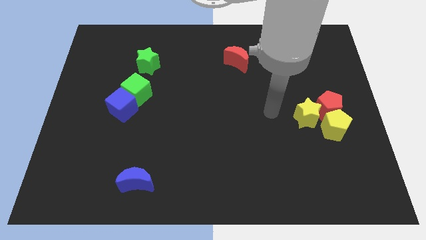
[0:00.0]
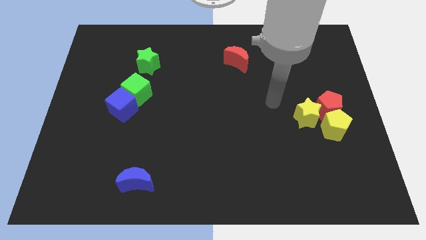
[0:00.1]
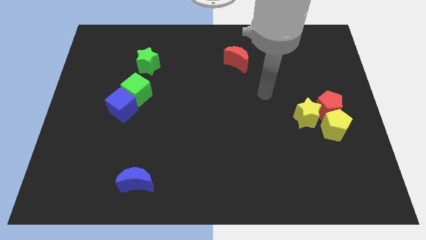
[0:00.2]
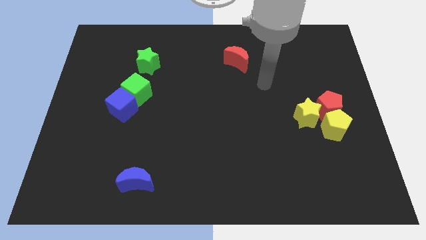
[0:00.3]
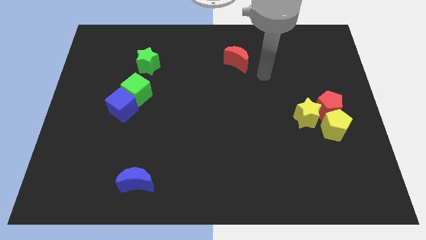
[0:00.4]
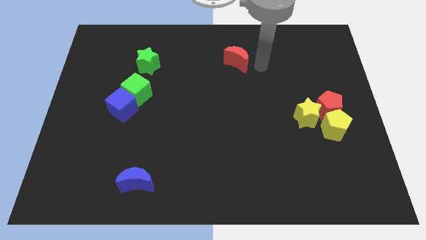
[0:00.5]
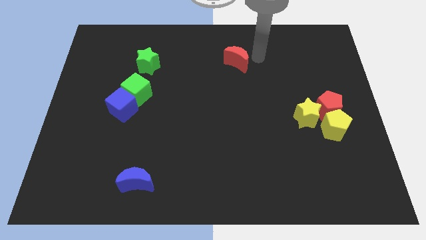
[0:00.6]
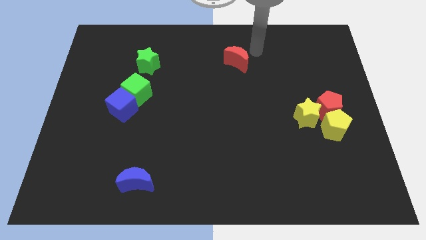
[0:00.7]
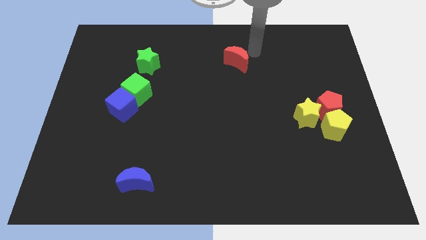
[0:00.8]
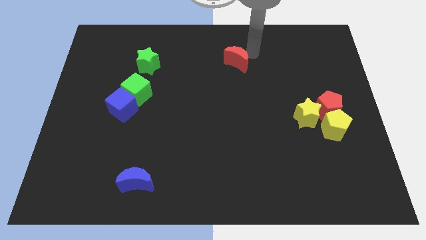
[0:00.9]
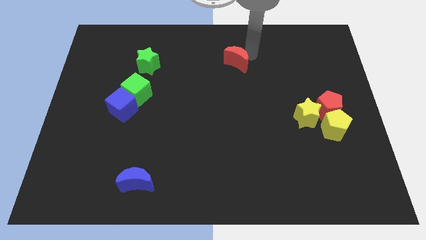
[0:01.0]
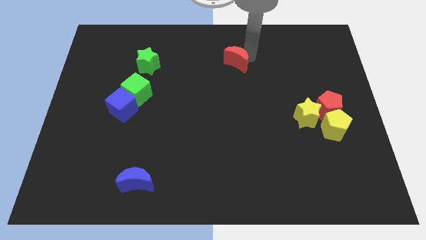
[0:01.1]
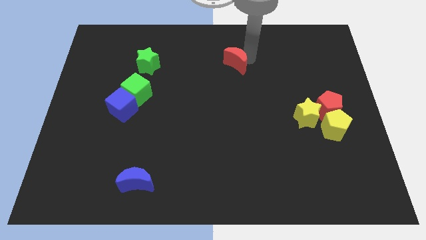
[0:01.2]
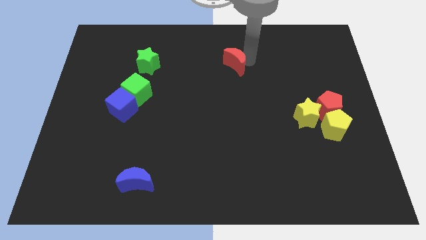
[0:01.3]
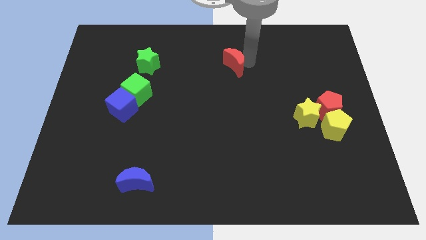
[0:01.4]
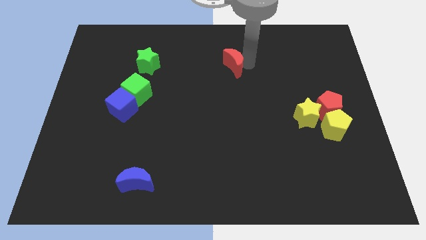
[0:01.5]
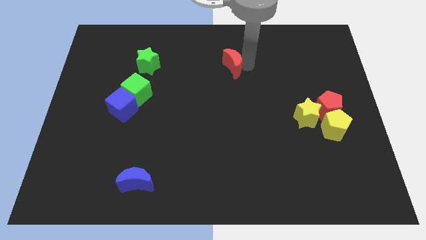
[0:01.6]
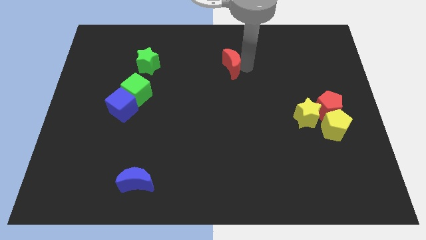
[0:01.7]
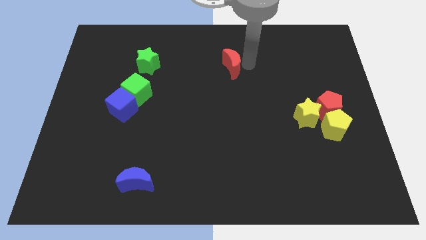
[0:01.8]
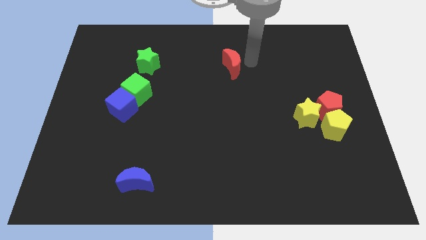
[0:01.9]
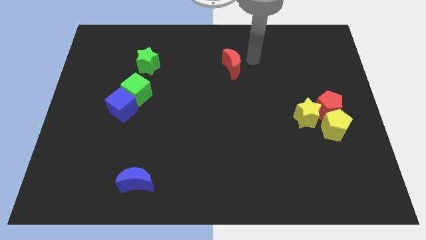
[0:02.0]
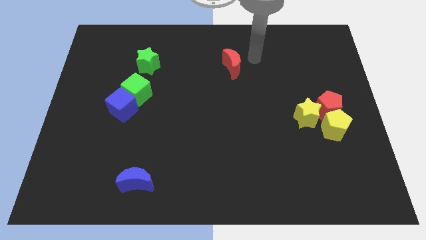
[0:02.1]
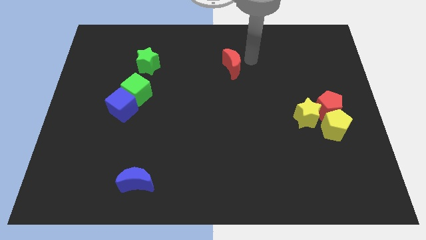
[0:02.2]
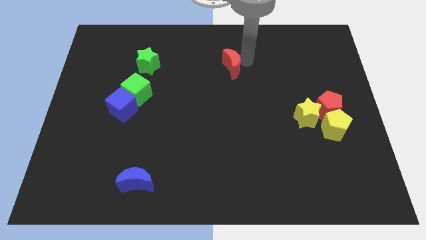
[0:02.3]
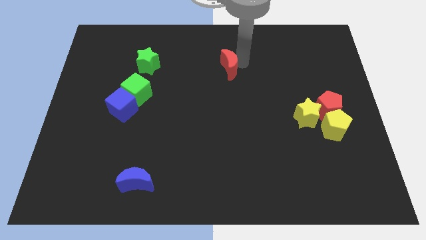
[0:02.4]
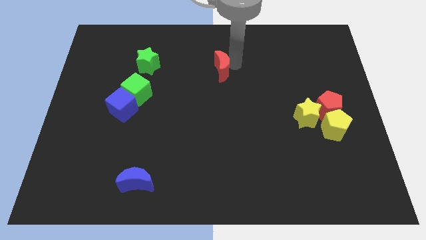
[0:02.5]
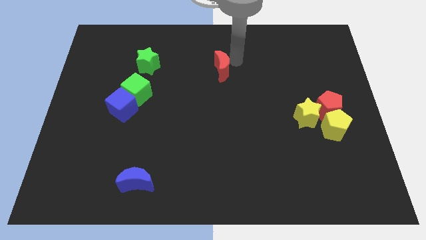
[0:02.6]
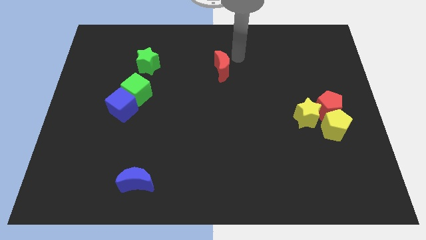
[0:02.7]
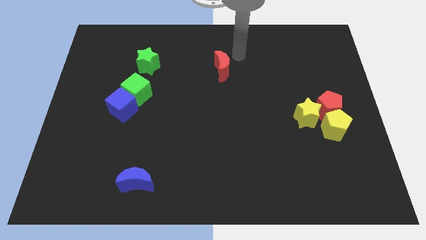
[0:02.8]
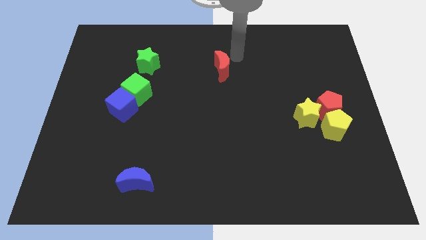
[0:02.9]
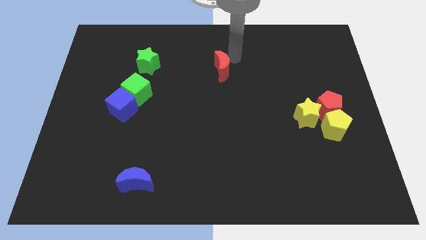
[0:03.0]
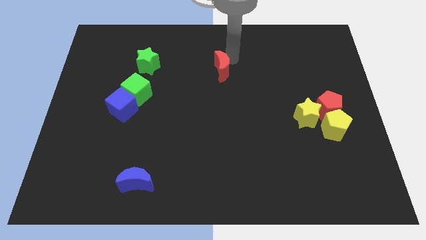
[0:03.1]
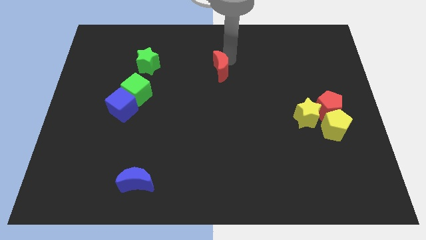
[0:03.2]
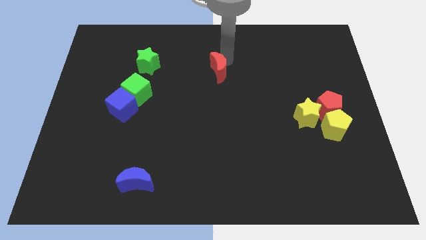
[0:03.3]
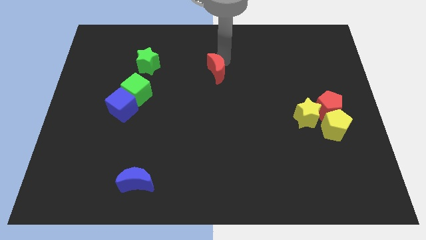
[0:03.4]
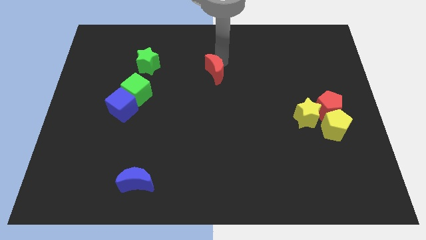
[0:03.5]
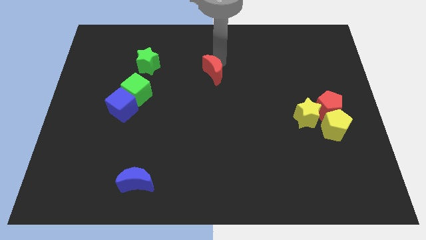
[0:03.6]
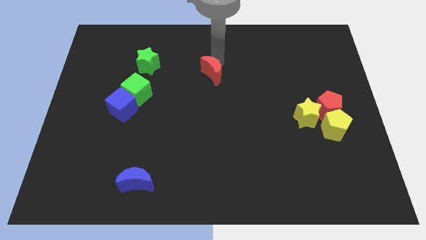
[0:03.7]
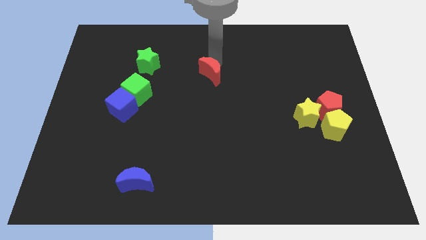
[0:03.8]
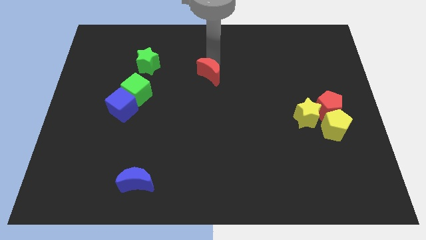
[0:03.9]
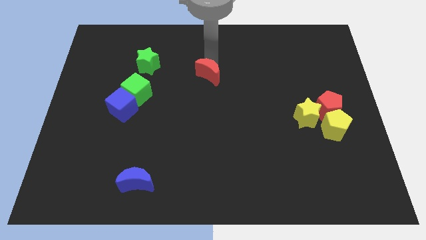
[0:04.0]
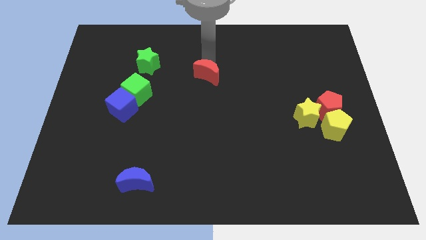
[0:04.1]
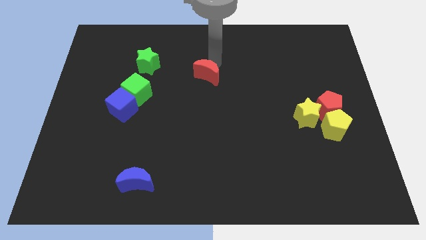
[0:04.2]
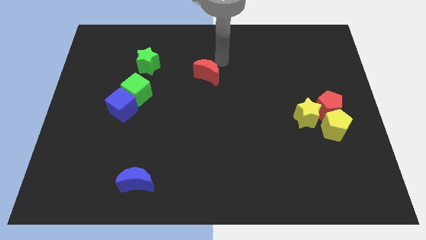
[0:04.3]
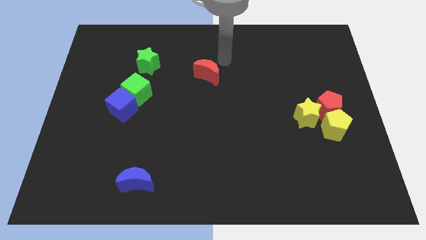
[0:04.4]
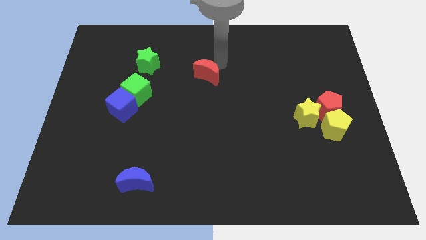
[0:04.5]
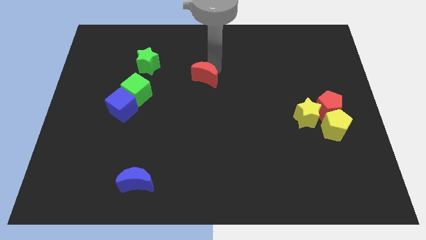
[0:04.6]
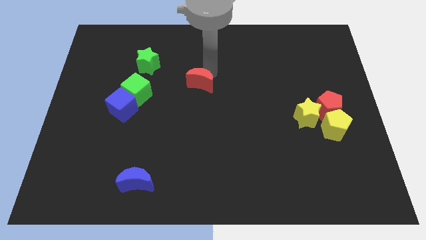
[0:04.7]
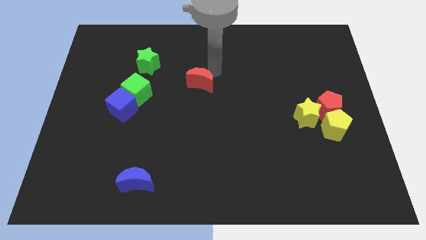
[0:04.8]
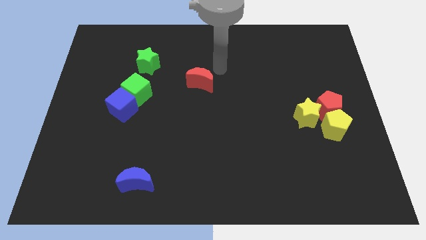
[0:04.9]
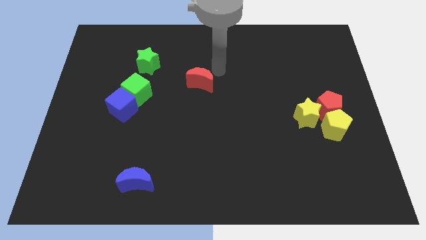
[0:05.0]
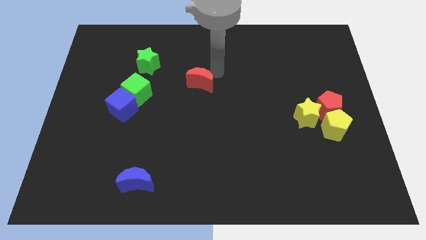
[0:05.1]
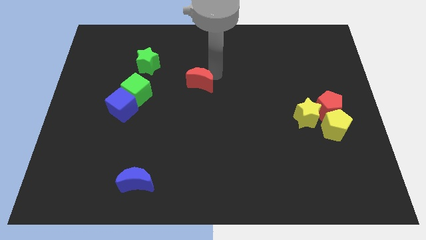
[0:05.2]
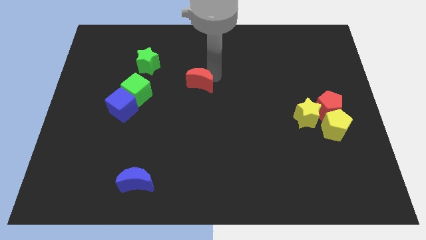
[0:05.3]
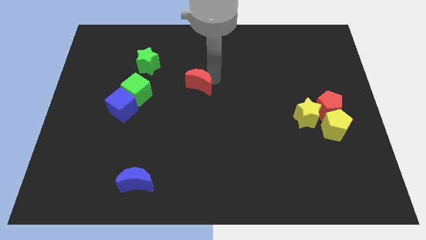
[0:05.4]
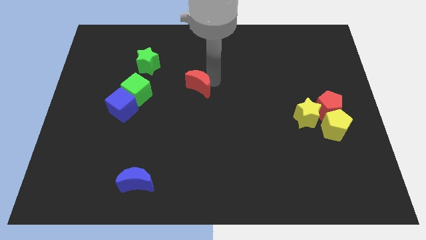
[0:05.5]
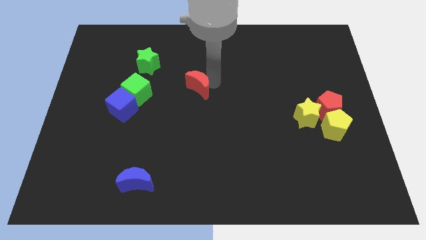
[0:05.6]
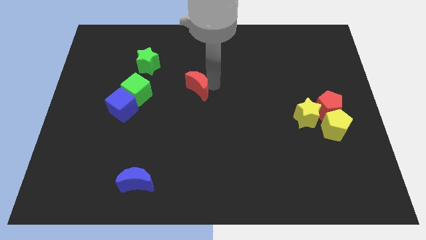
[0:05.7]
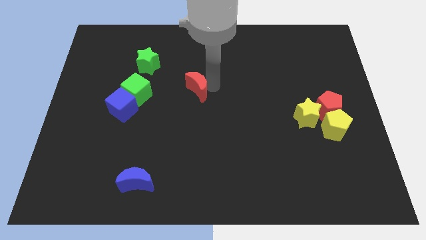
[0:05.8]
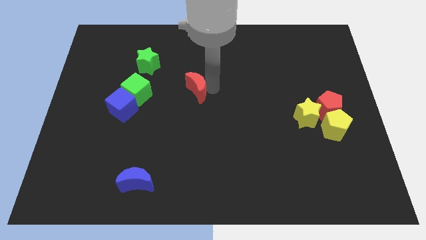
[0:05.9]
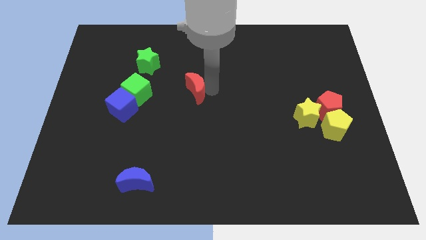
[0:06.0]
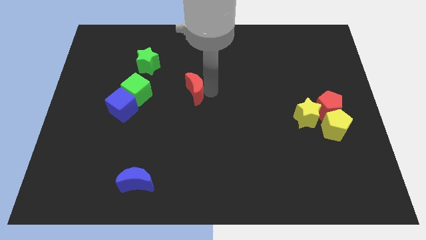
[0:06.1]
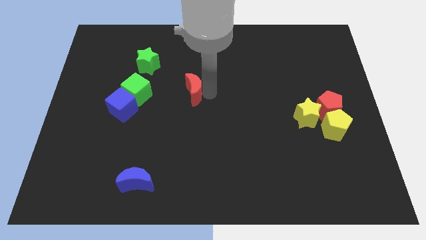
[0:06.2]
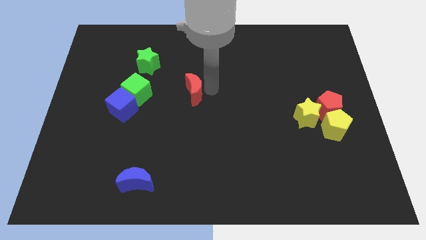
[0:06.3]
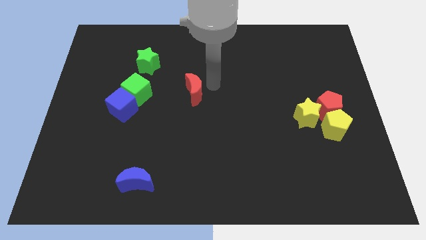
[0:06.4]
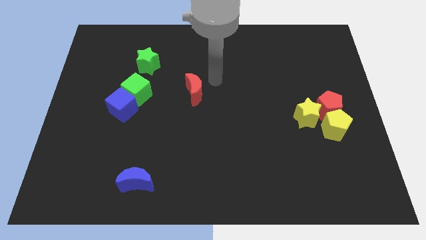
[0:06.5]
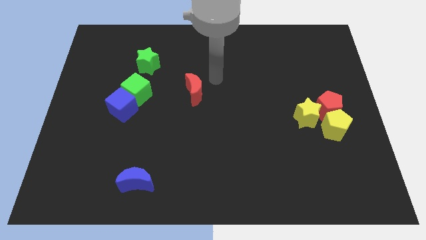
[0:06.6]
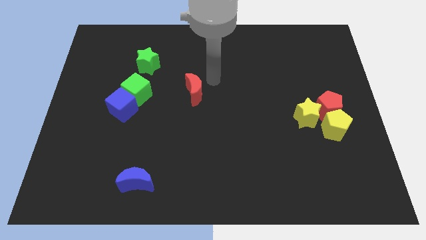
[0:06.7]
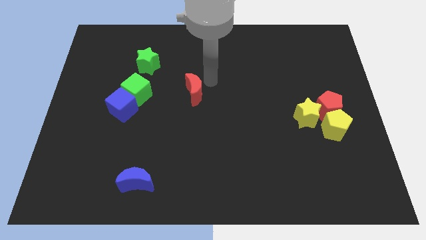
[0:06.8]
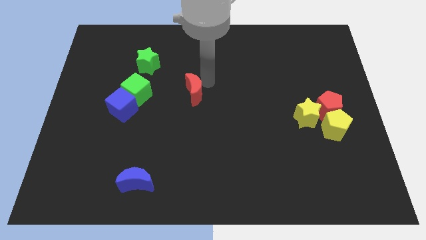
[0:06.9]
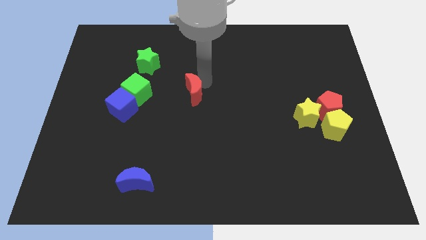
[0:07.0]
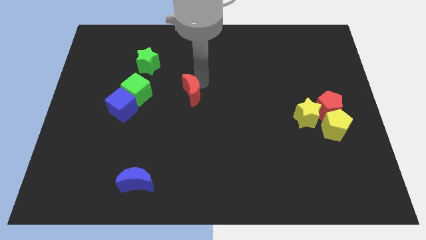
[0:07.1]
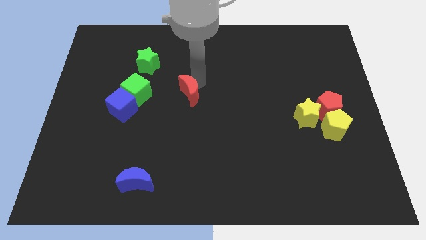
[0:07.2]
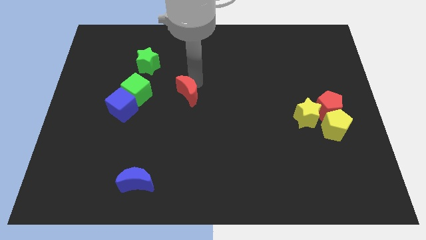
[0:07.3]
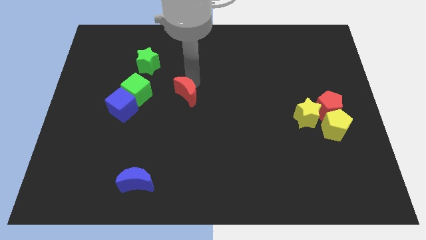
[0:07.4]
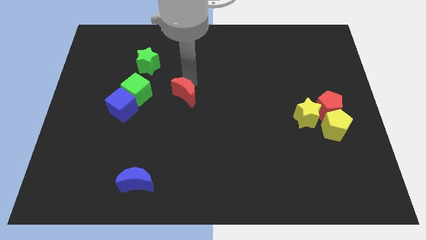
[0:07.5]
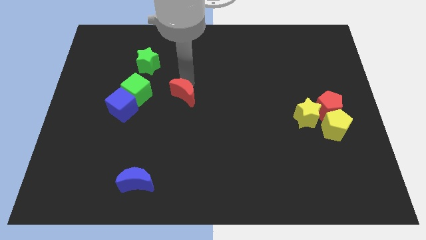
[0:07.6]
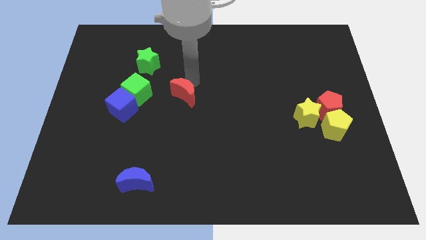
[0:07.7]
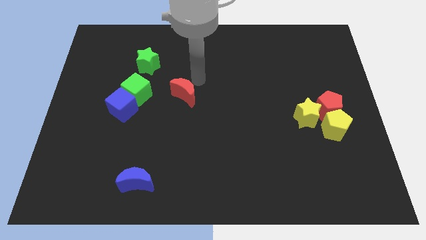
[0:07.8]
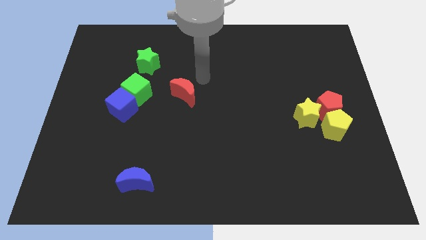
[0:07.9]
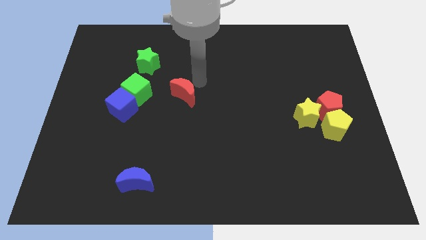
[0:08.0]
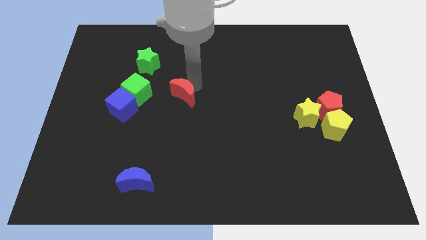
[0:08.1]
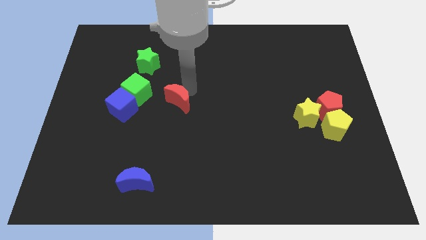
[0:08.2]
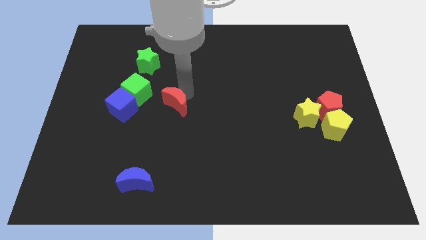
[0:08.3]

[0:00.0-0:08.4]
slide the red moon diagonally downwards and left
